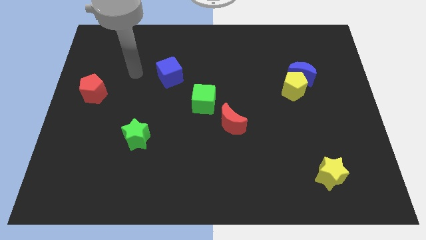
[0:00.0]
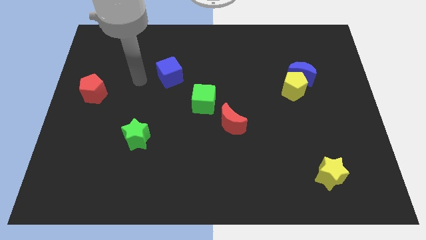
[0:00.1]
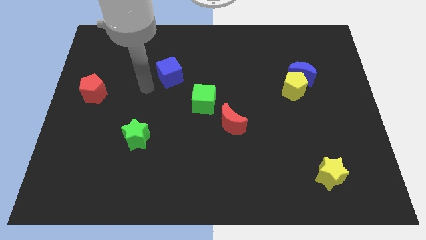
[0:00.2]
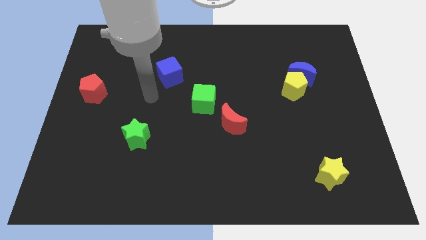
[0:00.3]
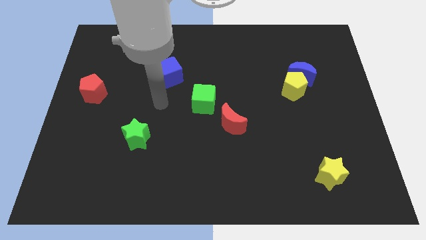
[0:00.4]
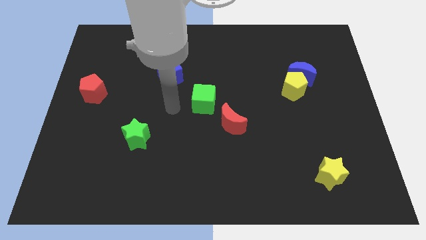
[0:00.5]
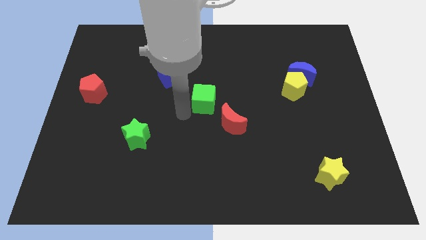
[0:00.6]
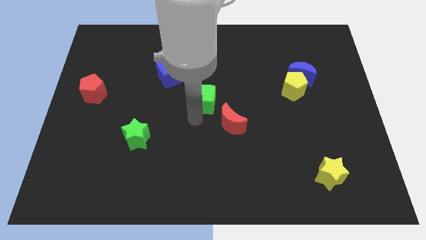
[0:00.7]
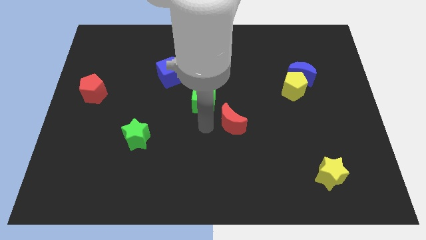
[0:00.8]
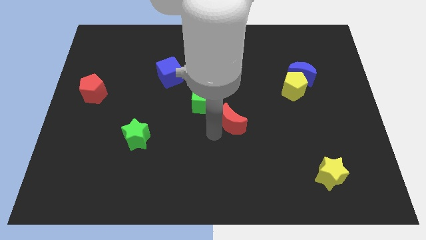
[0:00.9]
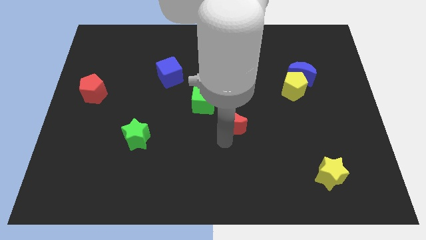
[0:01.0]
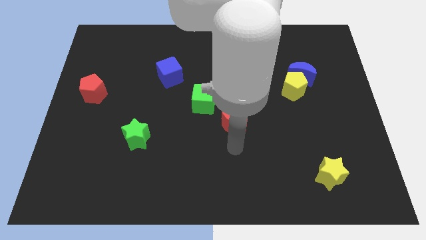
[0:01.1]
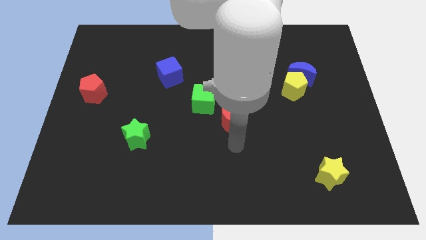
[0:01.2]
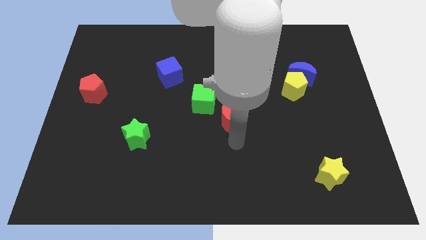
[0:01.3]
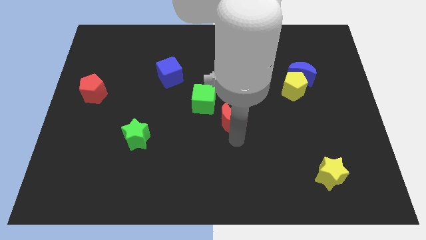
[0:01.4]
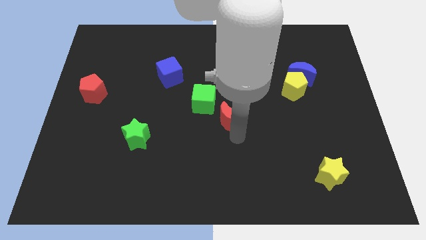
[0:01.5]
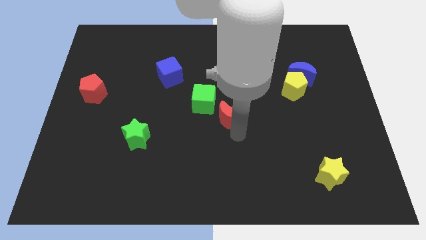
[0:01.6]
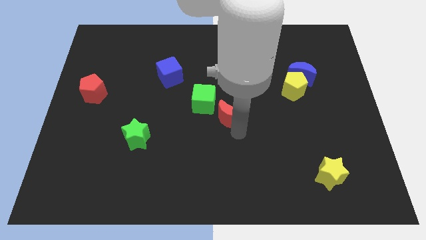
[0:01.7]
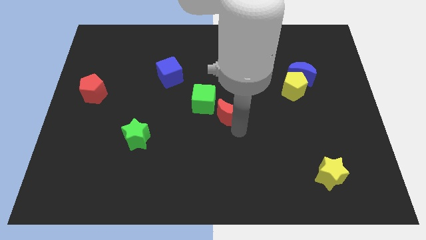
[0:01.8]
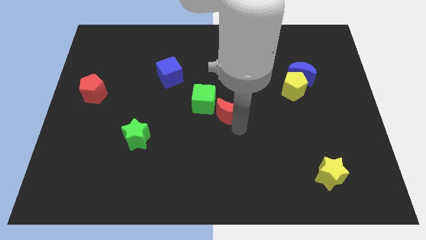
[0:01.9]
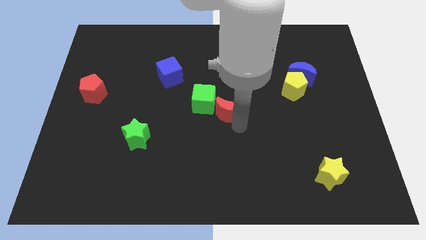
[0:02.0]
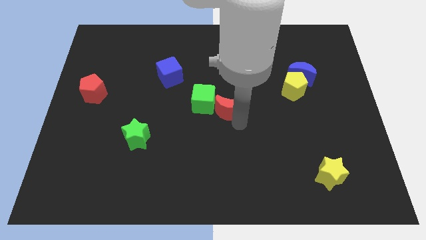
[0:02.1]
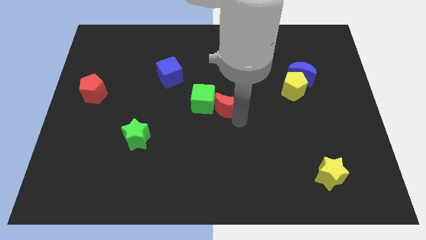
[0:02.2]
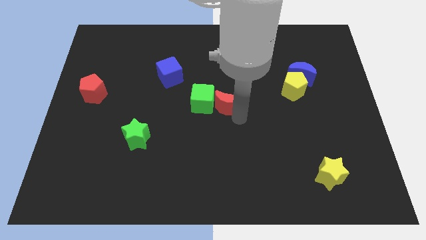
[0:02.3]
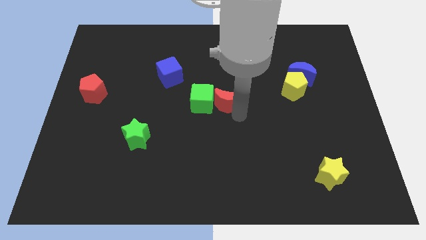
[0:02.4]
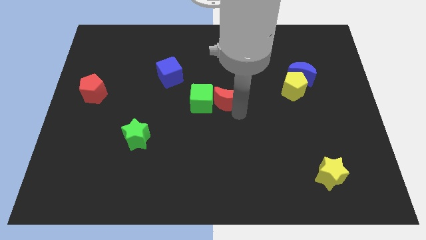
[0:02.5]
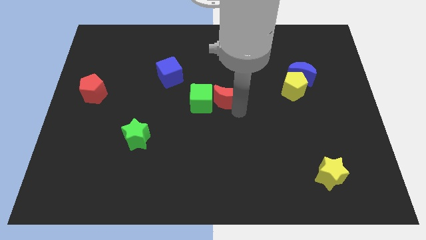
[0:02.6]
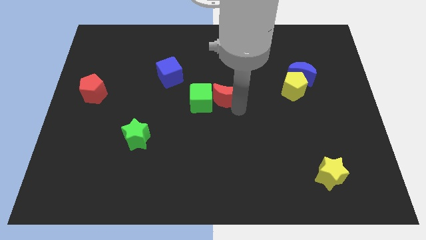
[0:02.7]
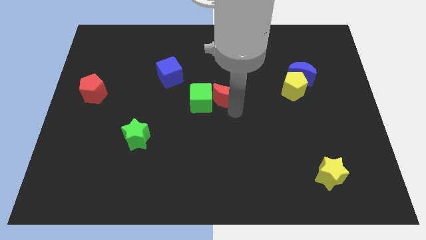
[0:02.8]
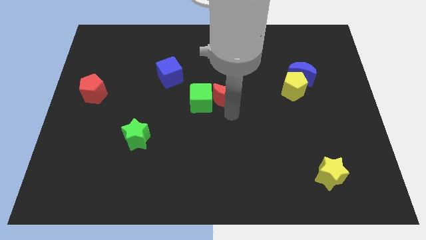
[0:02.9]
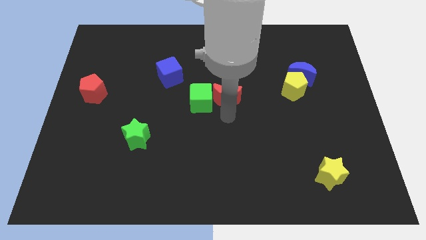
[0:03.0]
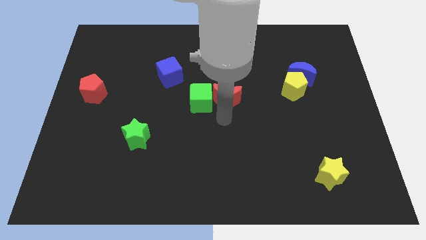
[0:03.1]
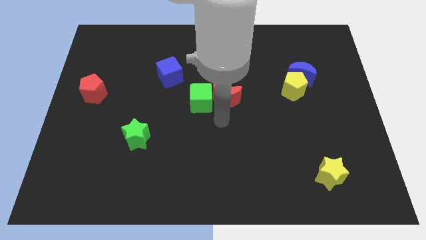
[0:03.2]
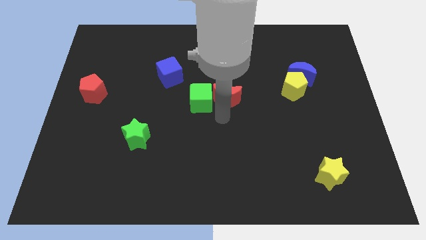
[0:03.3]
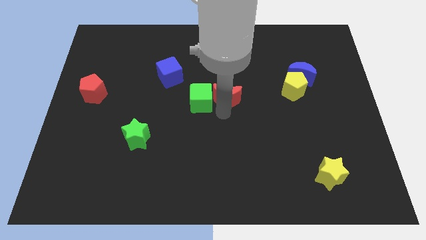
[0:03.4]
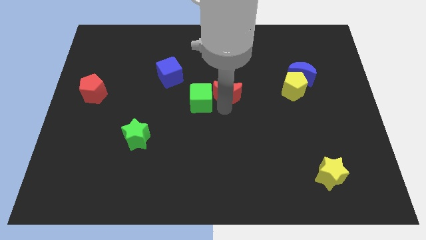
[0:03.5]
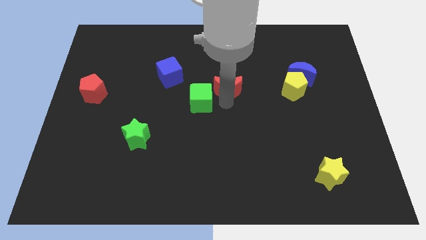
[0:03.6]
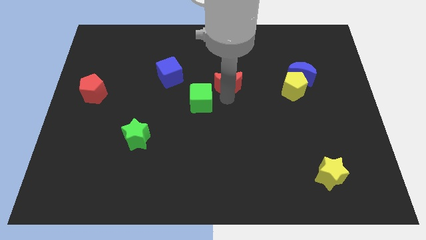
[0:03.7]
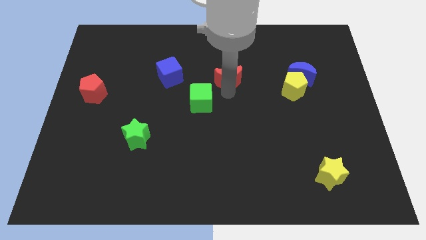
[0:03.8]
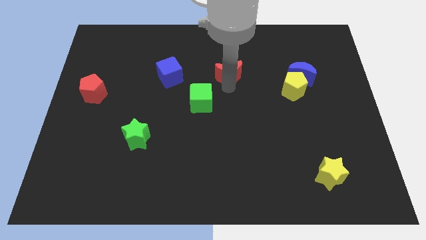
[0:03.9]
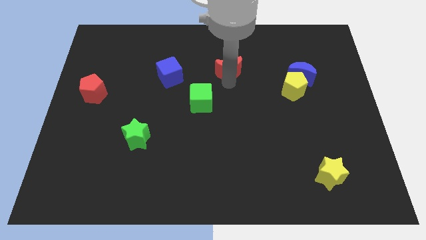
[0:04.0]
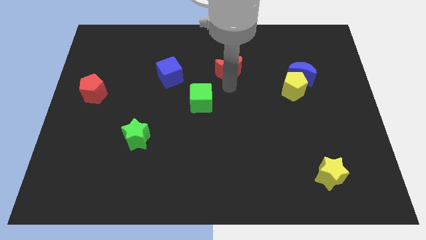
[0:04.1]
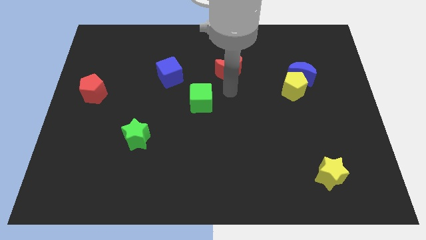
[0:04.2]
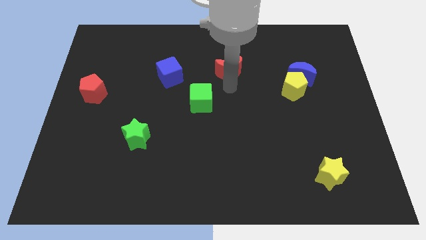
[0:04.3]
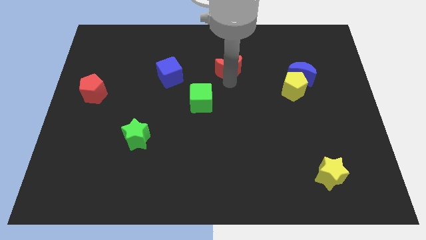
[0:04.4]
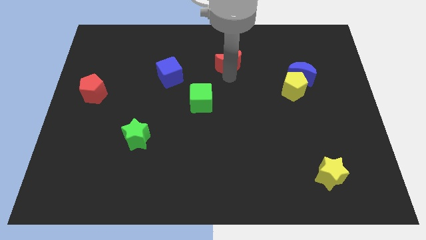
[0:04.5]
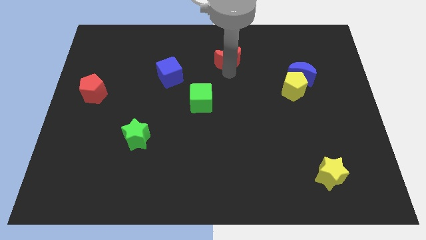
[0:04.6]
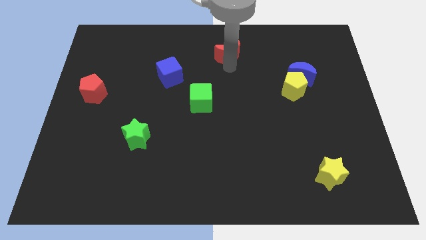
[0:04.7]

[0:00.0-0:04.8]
push the red moon to the top side

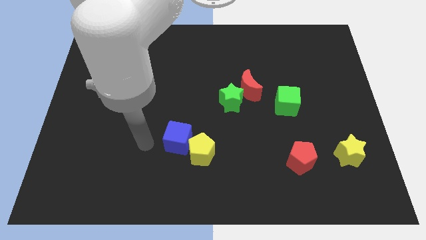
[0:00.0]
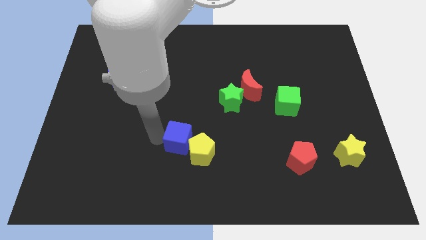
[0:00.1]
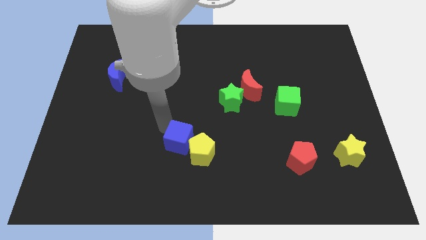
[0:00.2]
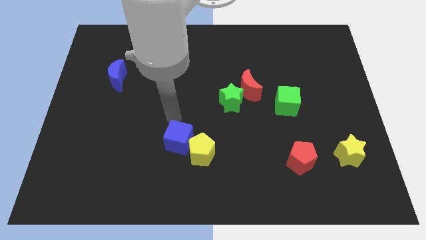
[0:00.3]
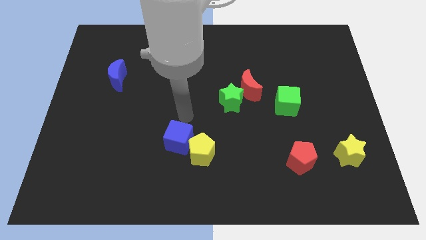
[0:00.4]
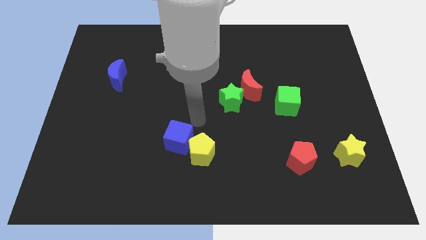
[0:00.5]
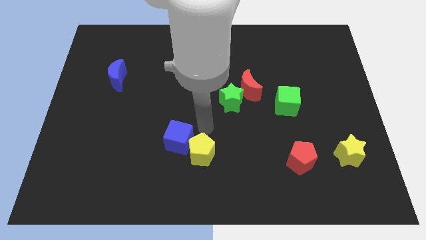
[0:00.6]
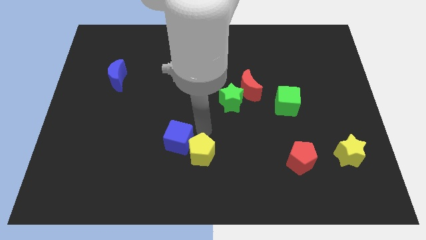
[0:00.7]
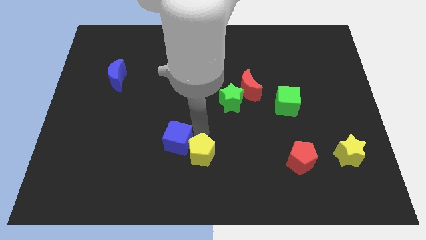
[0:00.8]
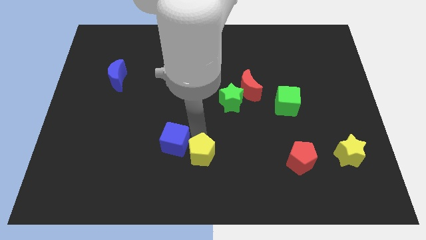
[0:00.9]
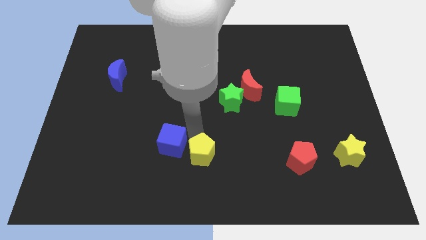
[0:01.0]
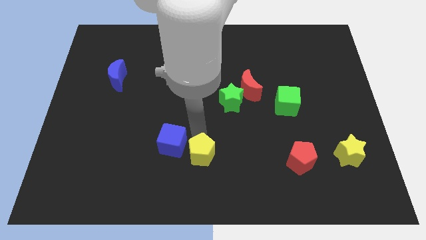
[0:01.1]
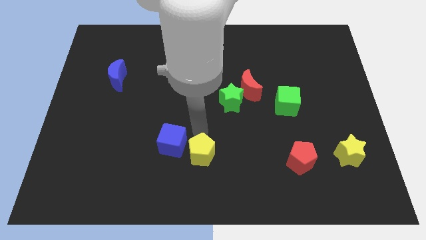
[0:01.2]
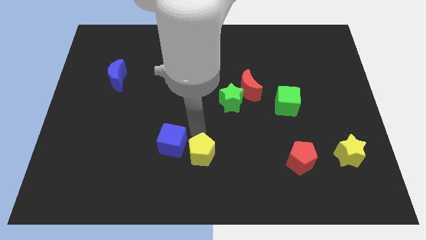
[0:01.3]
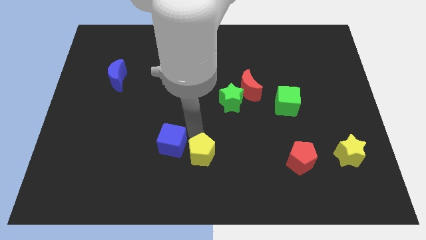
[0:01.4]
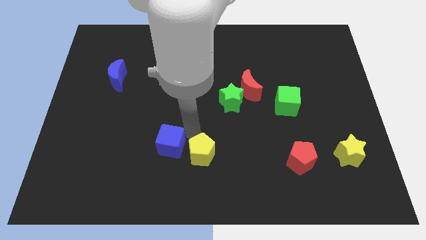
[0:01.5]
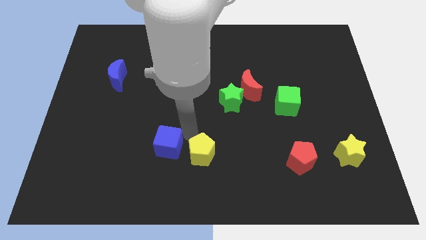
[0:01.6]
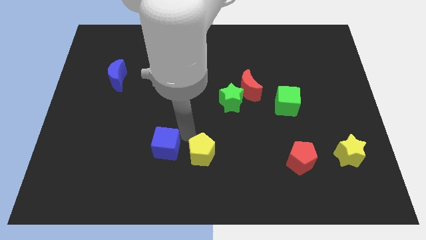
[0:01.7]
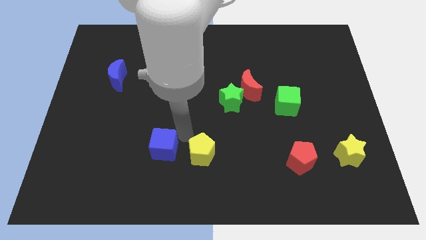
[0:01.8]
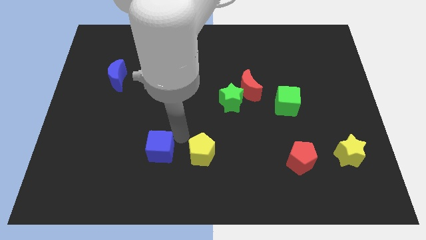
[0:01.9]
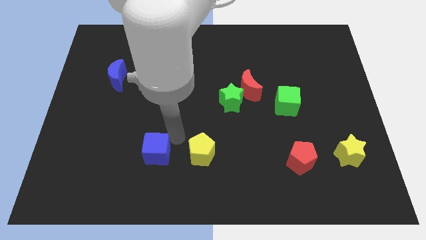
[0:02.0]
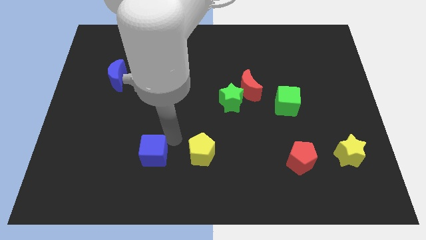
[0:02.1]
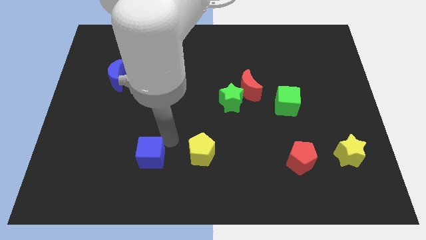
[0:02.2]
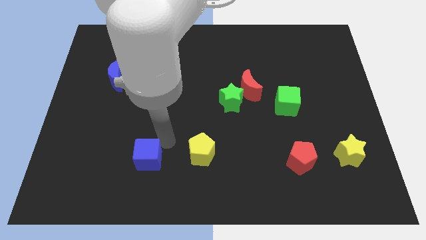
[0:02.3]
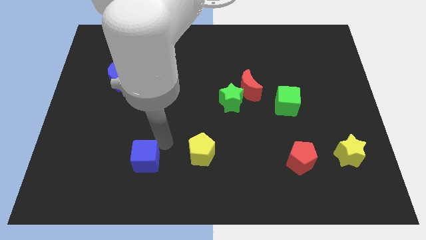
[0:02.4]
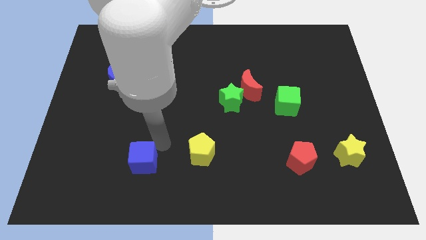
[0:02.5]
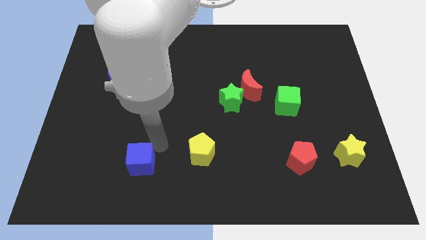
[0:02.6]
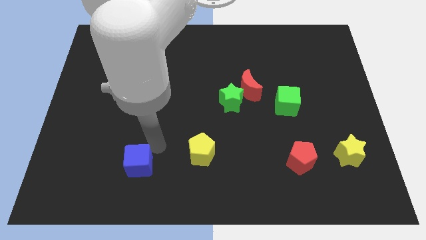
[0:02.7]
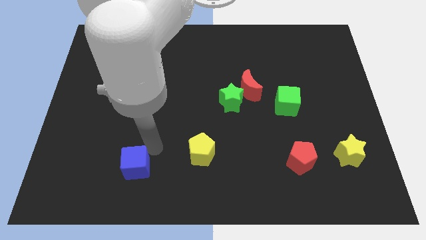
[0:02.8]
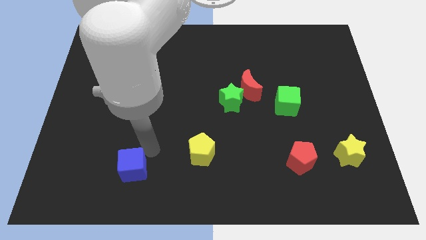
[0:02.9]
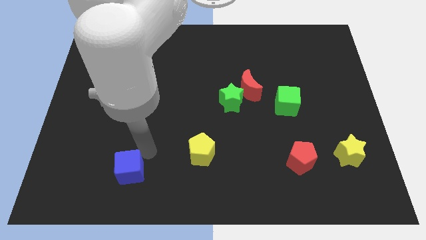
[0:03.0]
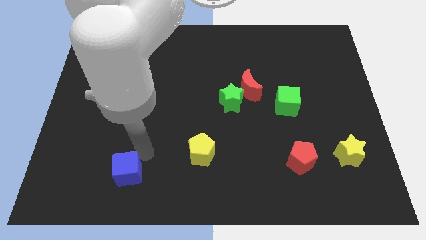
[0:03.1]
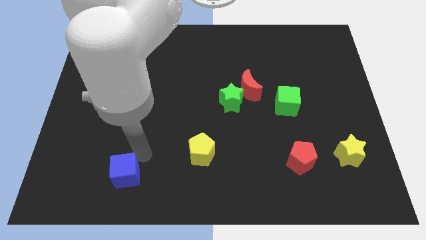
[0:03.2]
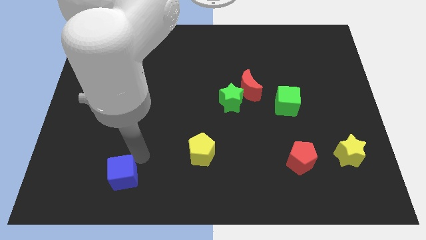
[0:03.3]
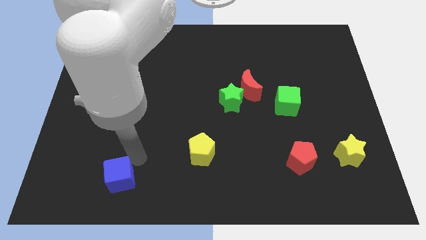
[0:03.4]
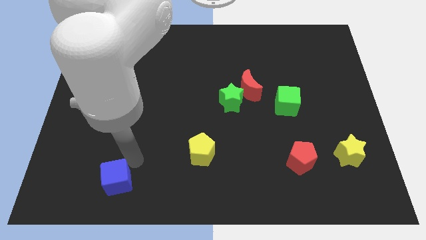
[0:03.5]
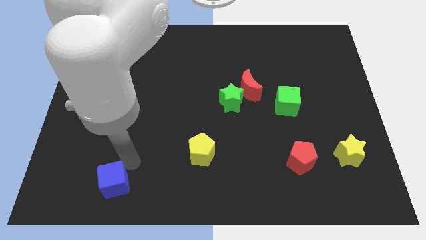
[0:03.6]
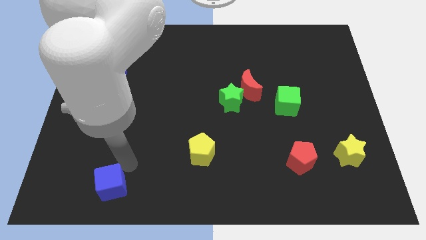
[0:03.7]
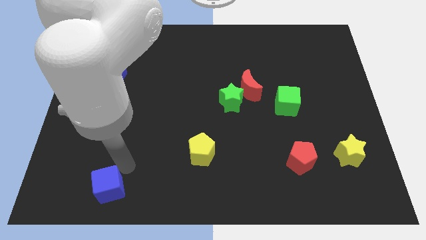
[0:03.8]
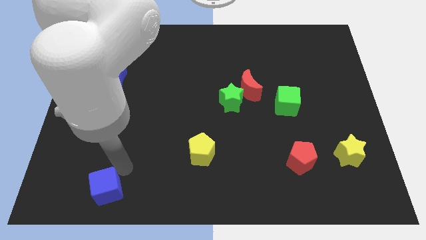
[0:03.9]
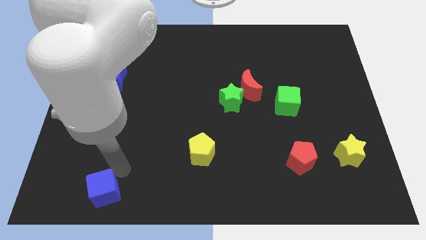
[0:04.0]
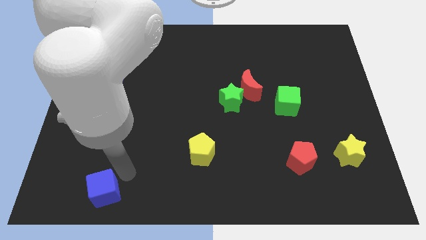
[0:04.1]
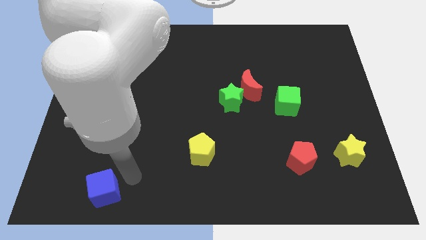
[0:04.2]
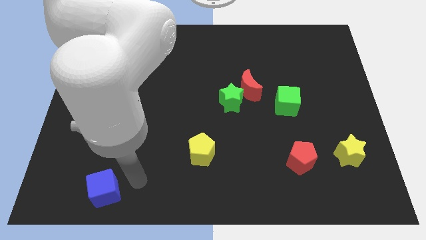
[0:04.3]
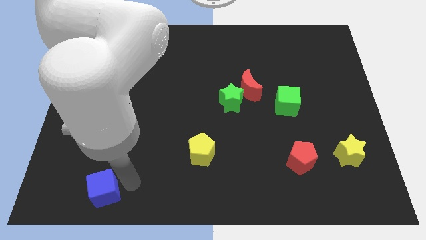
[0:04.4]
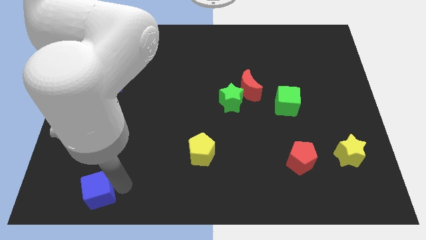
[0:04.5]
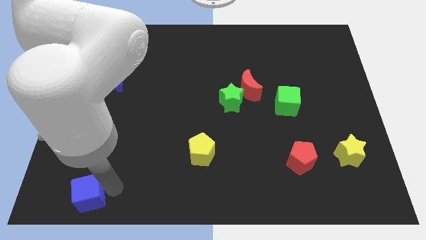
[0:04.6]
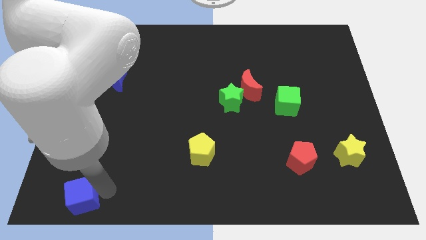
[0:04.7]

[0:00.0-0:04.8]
put the blue cube to the bottom left corner
